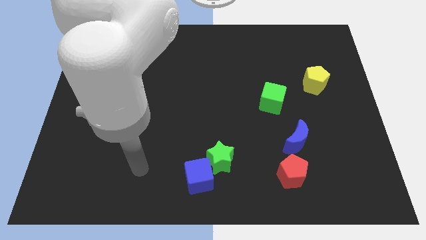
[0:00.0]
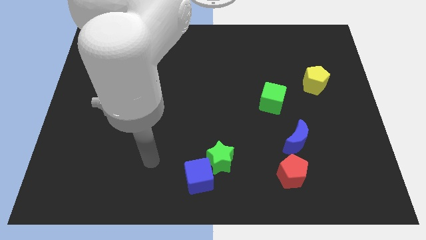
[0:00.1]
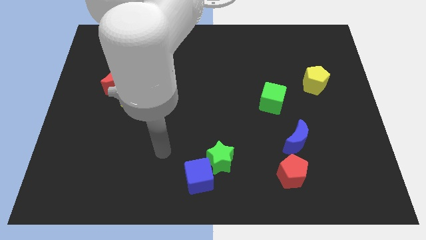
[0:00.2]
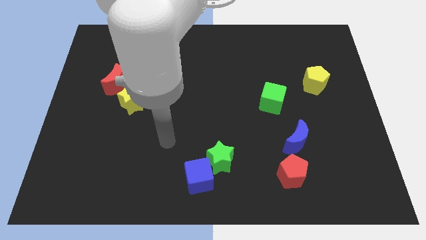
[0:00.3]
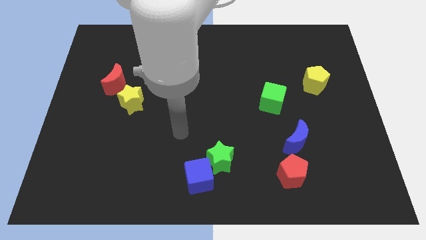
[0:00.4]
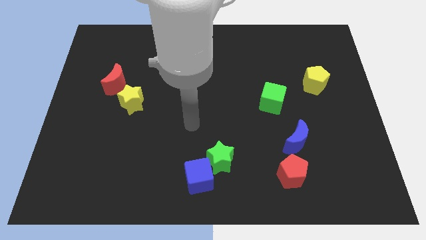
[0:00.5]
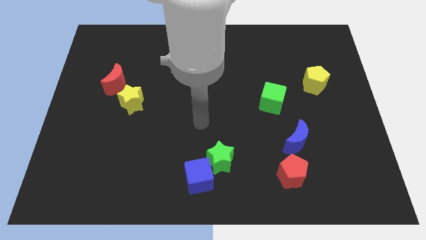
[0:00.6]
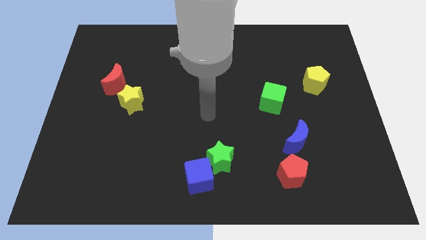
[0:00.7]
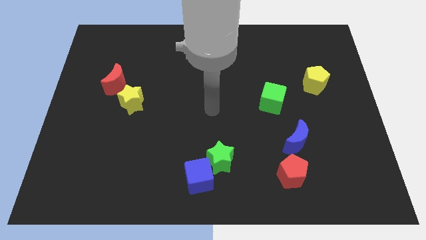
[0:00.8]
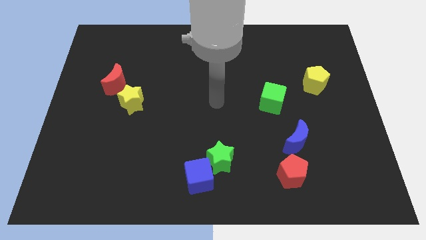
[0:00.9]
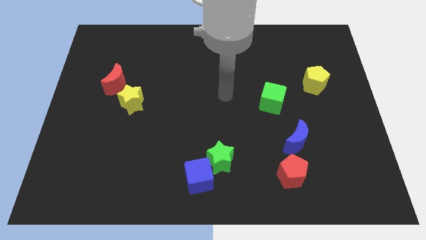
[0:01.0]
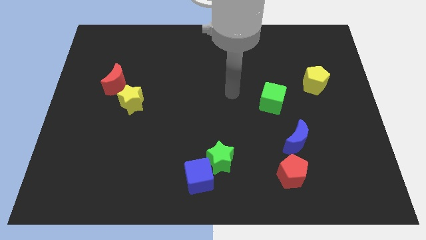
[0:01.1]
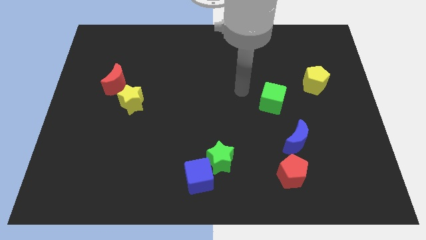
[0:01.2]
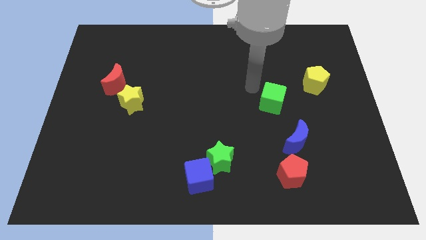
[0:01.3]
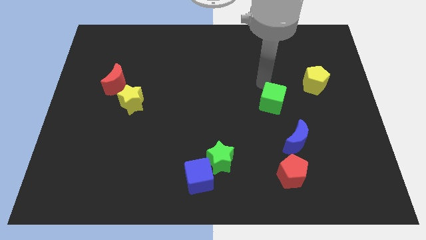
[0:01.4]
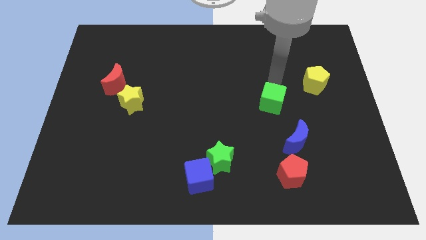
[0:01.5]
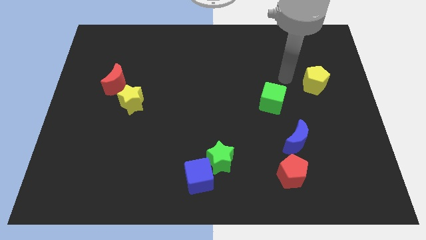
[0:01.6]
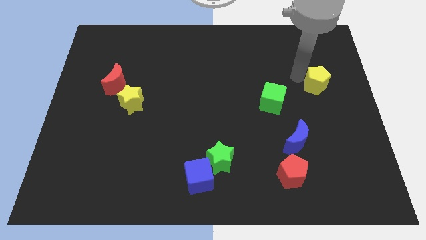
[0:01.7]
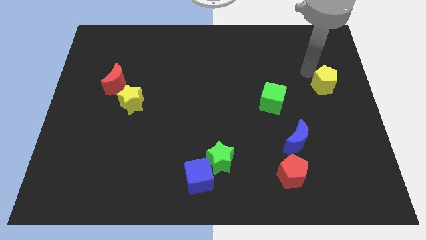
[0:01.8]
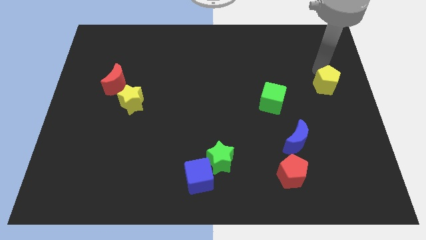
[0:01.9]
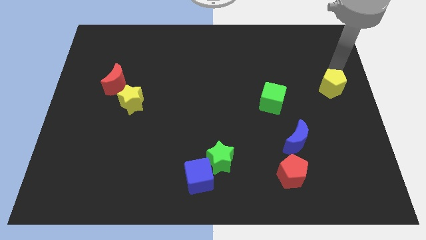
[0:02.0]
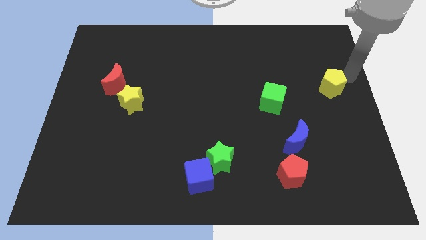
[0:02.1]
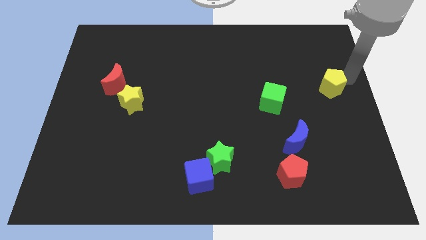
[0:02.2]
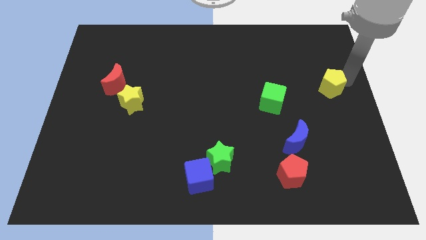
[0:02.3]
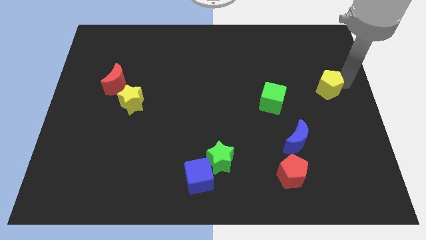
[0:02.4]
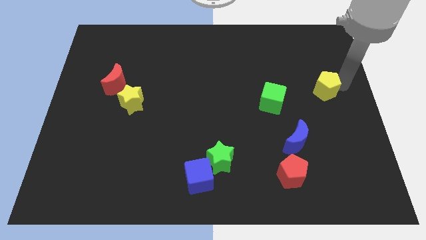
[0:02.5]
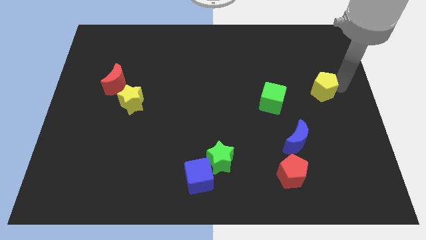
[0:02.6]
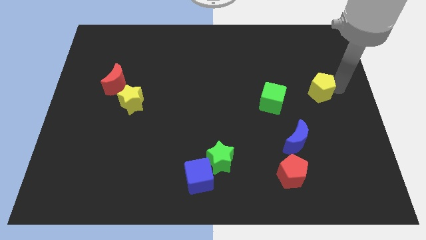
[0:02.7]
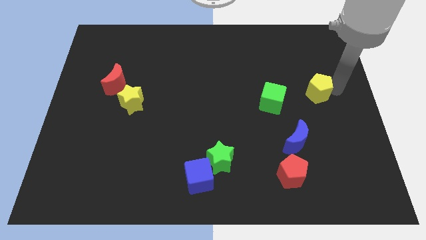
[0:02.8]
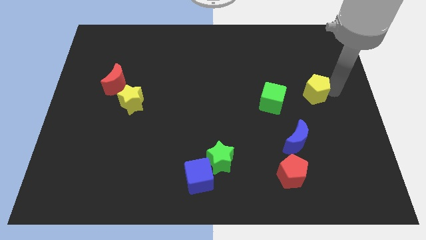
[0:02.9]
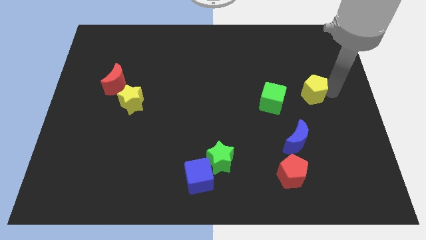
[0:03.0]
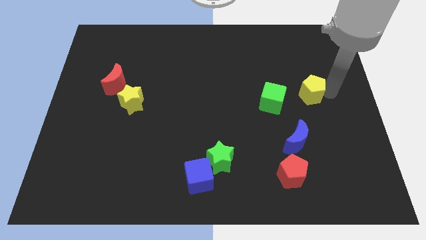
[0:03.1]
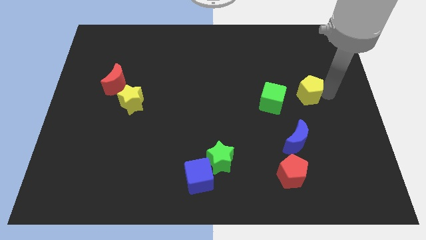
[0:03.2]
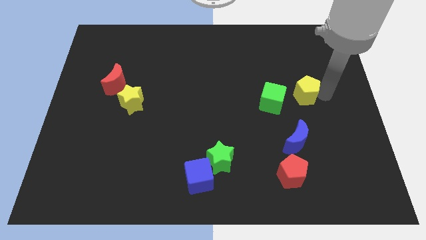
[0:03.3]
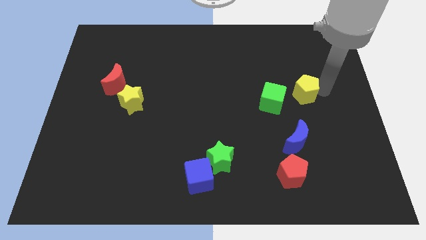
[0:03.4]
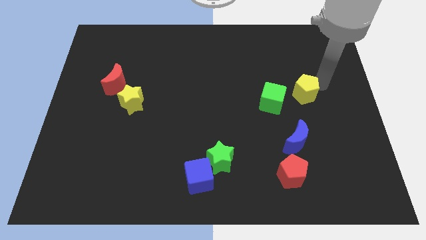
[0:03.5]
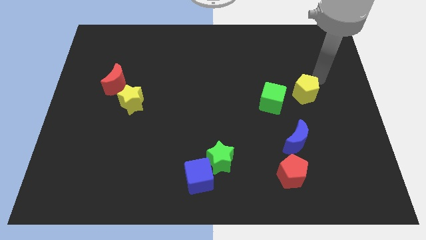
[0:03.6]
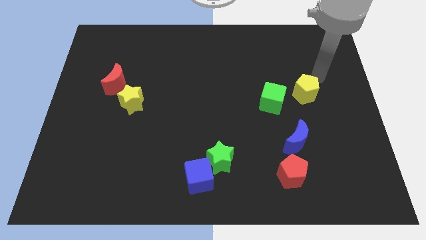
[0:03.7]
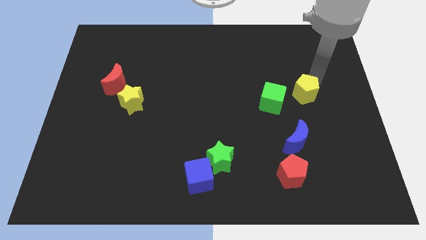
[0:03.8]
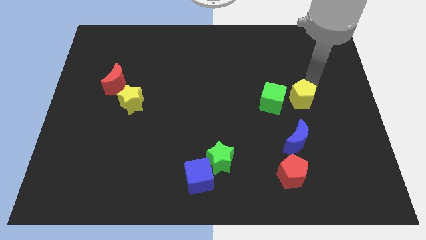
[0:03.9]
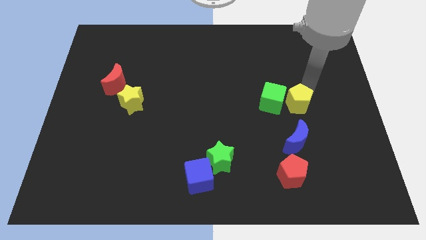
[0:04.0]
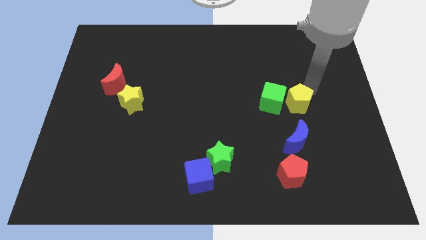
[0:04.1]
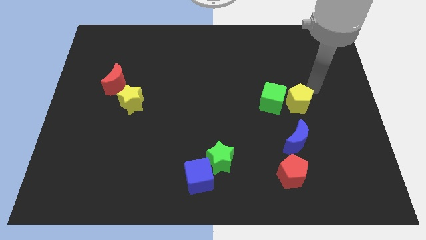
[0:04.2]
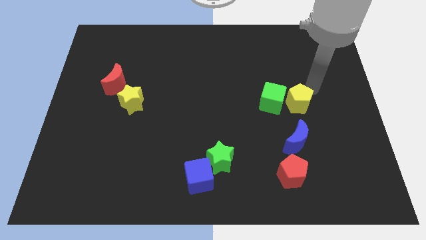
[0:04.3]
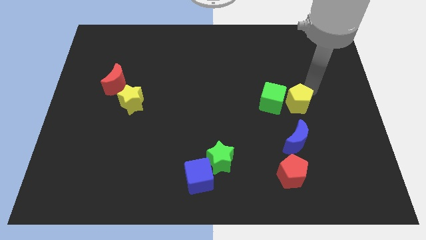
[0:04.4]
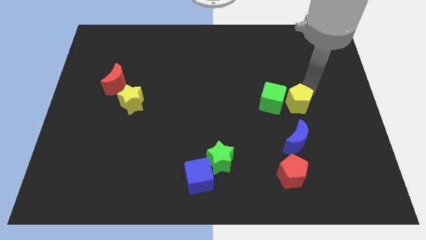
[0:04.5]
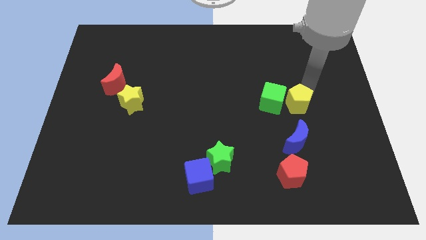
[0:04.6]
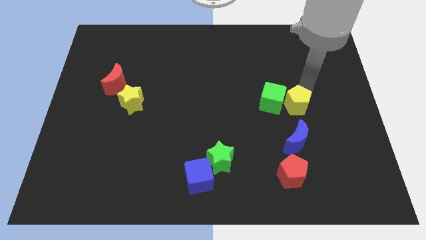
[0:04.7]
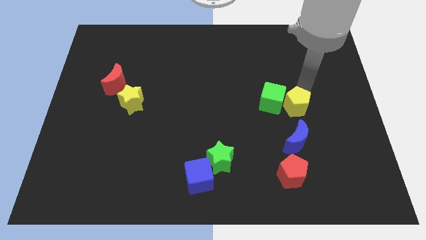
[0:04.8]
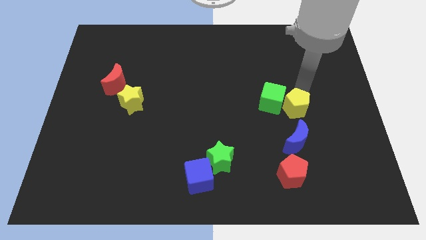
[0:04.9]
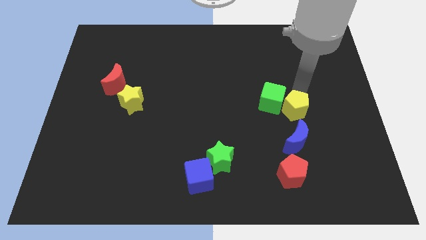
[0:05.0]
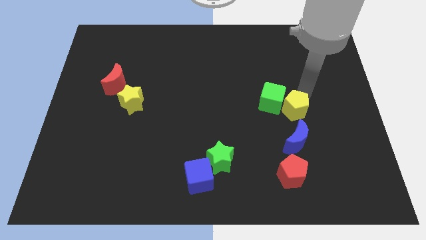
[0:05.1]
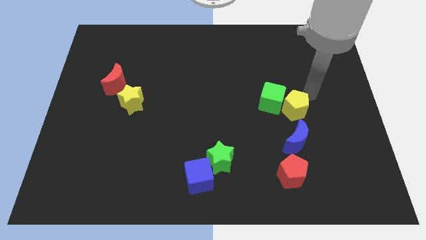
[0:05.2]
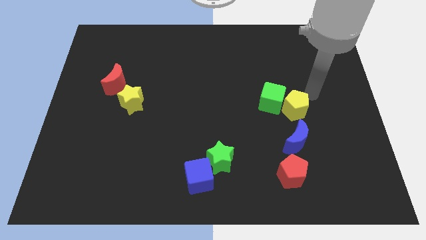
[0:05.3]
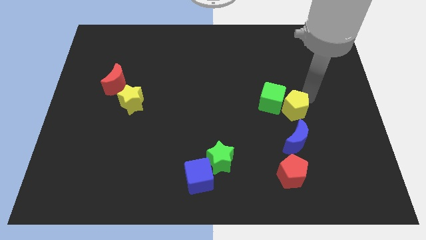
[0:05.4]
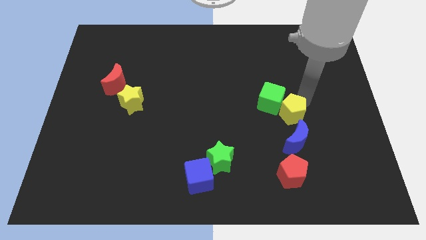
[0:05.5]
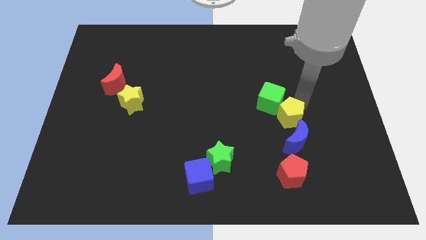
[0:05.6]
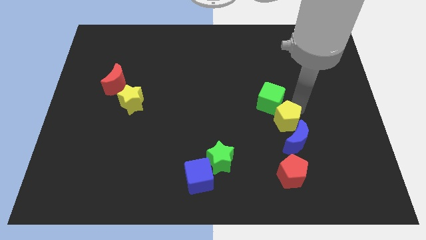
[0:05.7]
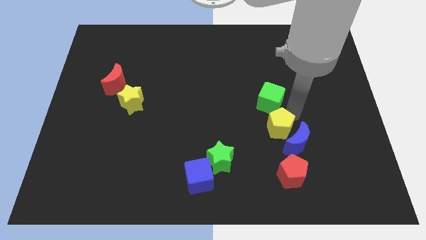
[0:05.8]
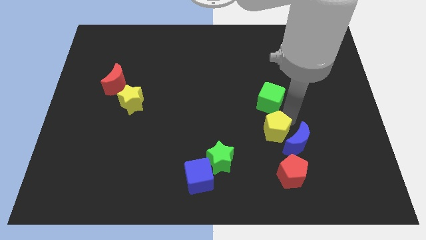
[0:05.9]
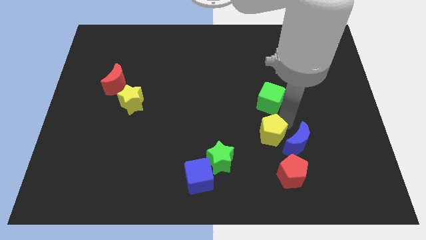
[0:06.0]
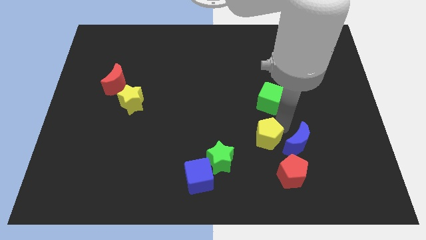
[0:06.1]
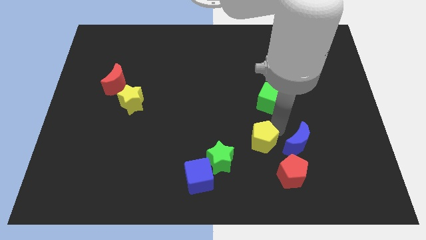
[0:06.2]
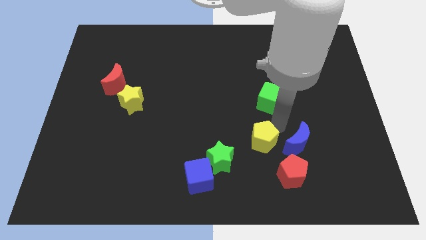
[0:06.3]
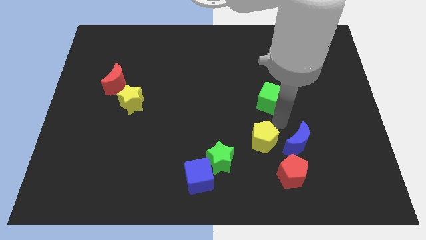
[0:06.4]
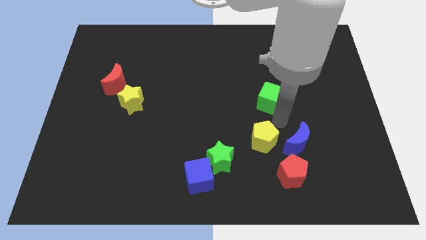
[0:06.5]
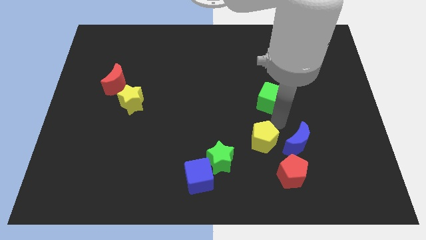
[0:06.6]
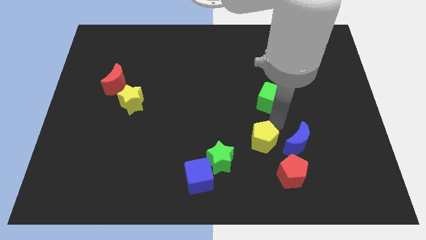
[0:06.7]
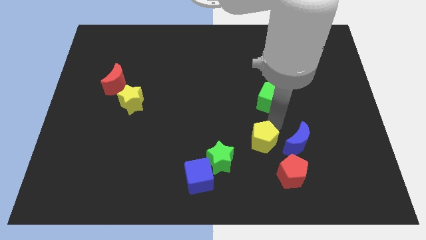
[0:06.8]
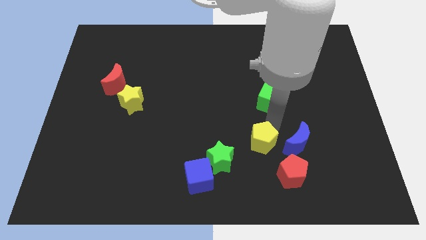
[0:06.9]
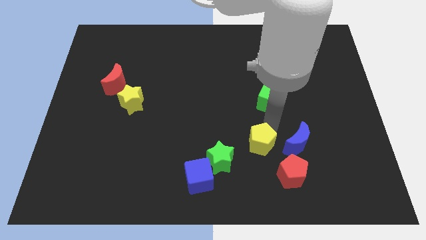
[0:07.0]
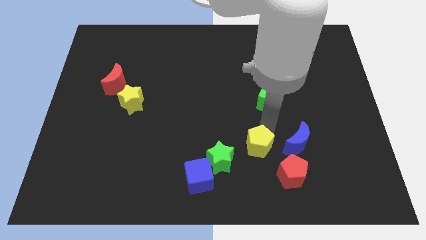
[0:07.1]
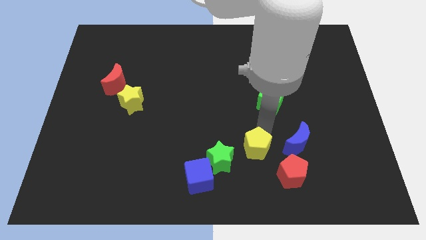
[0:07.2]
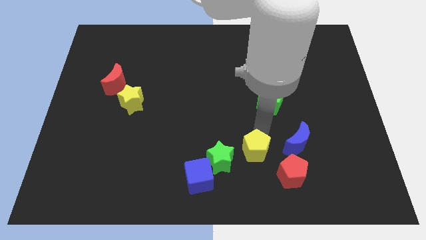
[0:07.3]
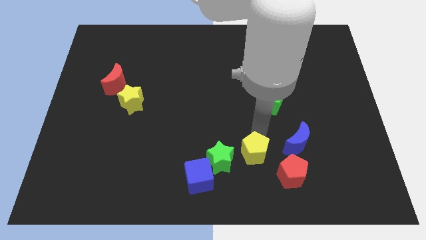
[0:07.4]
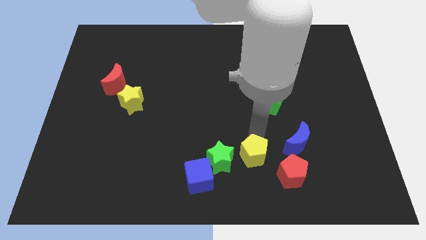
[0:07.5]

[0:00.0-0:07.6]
move the yellow pentagon to the left side of the red pentagon
